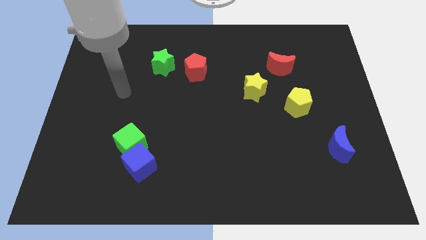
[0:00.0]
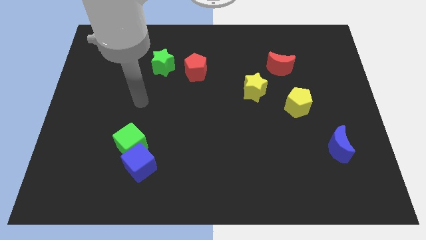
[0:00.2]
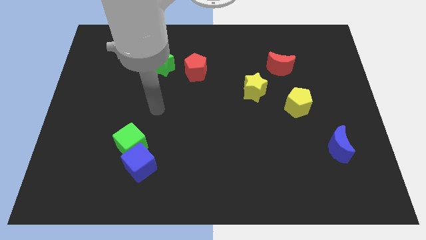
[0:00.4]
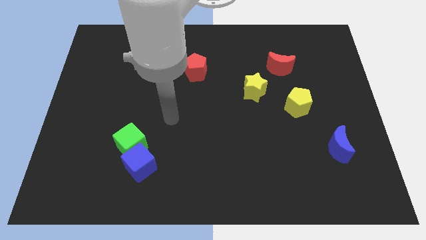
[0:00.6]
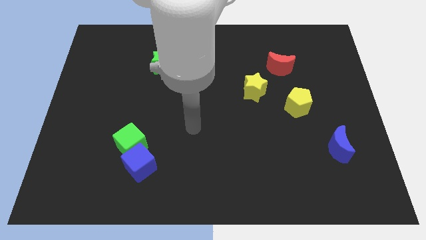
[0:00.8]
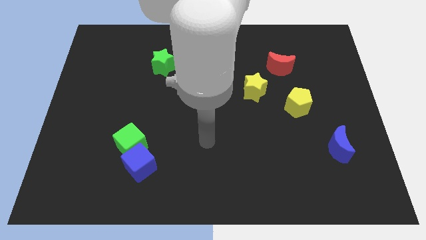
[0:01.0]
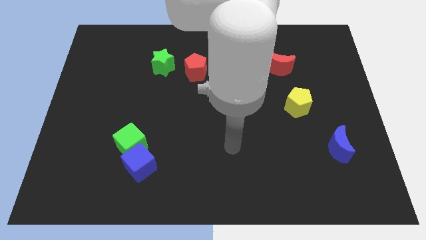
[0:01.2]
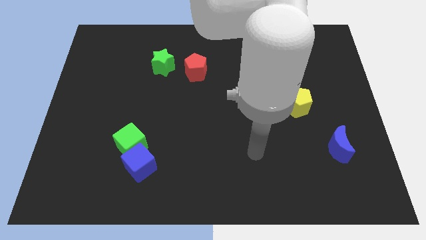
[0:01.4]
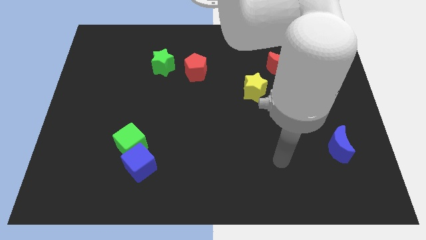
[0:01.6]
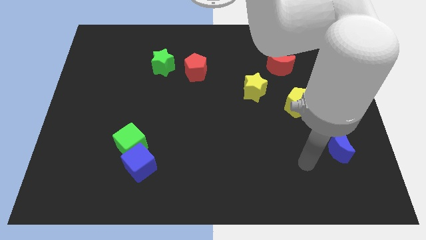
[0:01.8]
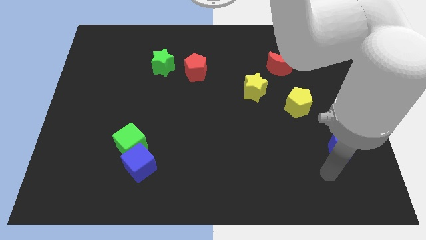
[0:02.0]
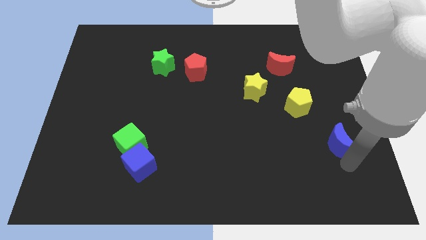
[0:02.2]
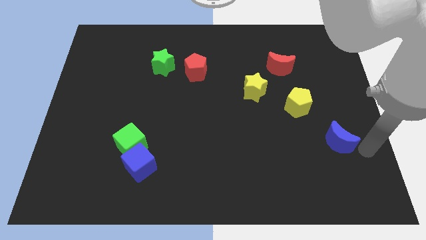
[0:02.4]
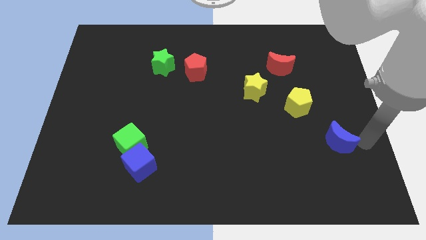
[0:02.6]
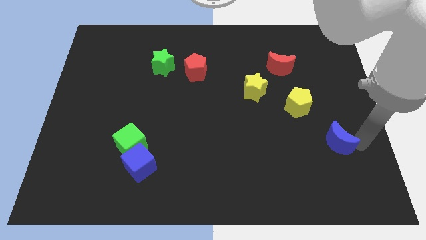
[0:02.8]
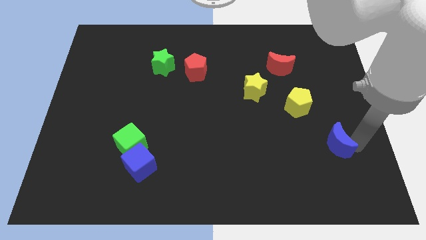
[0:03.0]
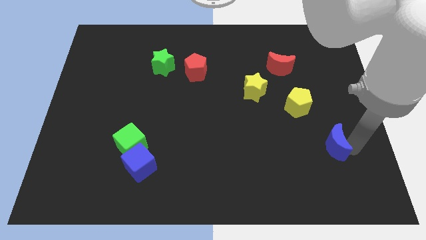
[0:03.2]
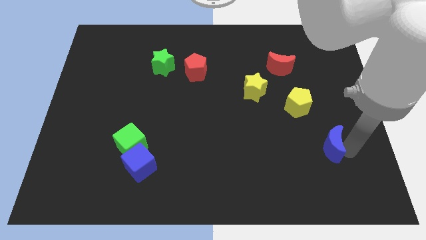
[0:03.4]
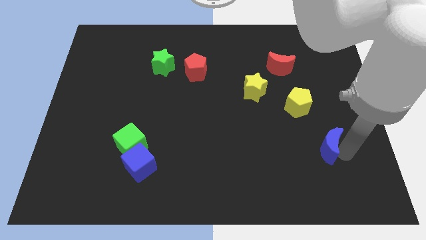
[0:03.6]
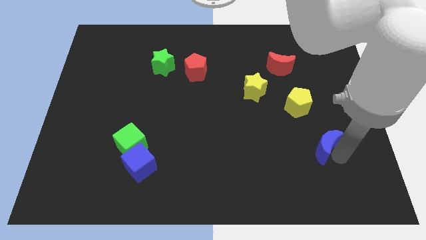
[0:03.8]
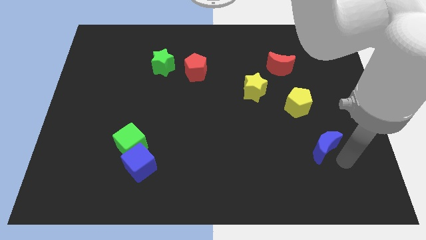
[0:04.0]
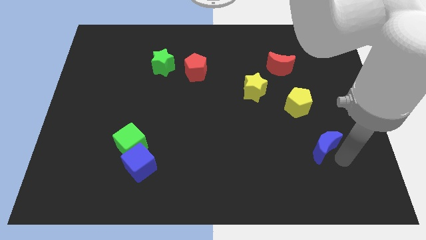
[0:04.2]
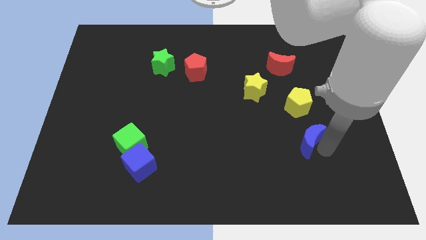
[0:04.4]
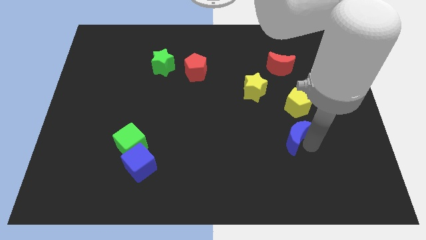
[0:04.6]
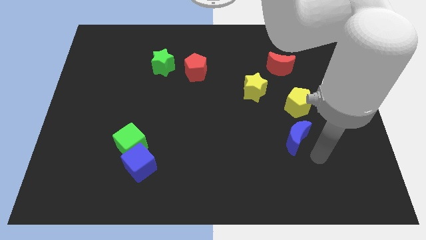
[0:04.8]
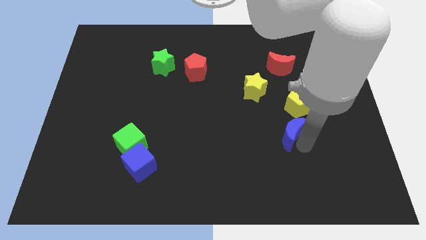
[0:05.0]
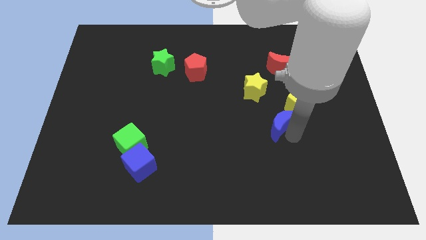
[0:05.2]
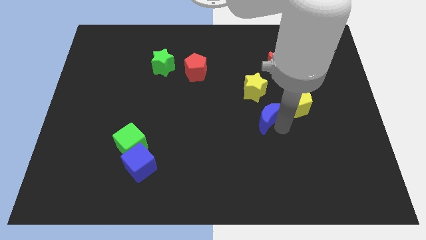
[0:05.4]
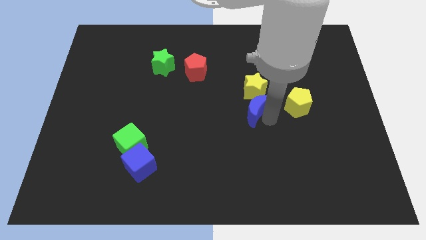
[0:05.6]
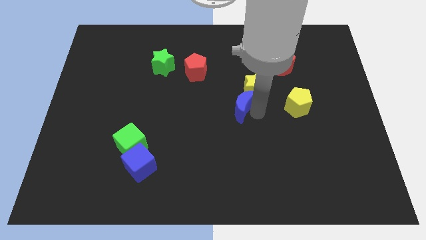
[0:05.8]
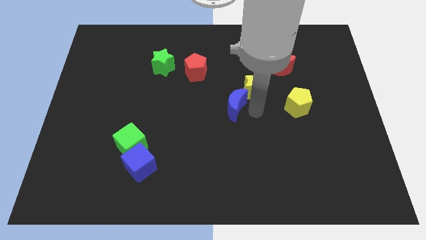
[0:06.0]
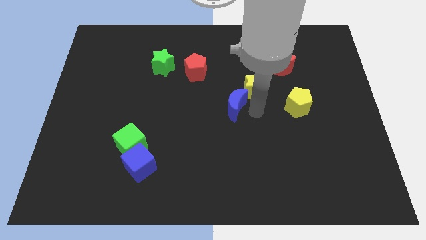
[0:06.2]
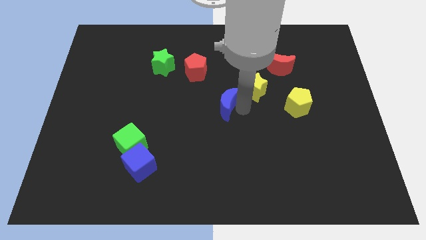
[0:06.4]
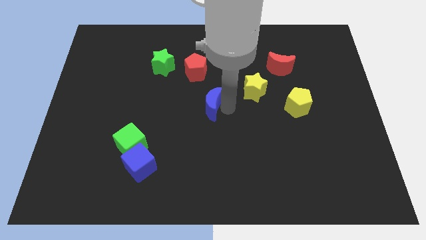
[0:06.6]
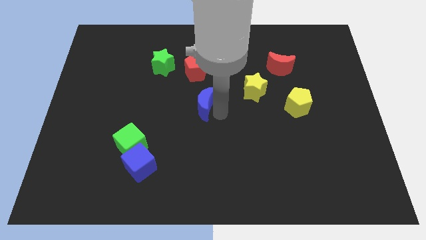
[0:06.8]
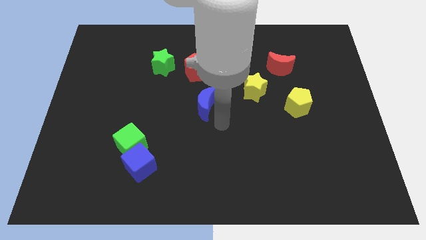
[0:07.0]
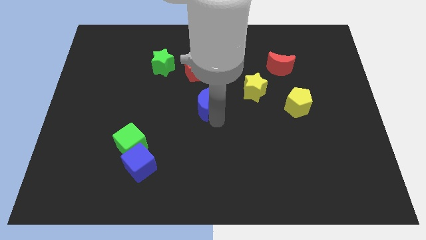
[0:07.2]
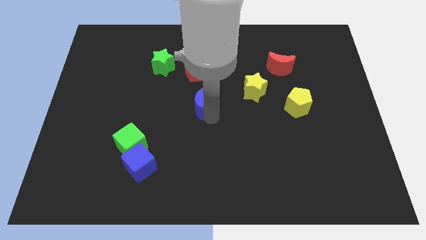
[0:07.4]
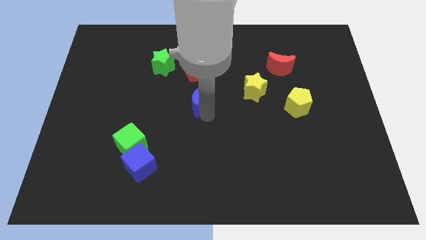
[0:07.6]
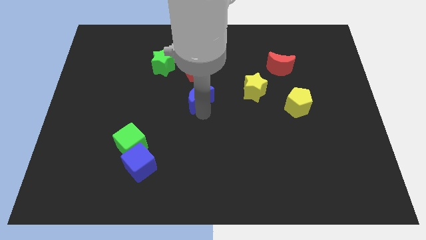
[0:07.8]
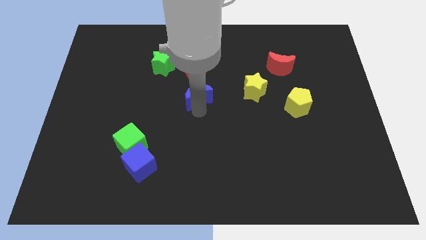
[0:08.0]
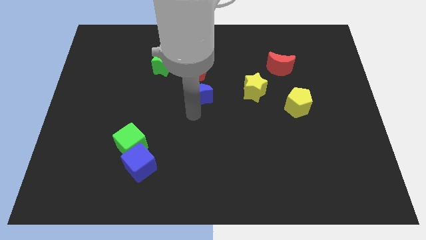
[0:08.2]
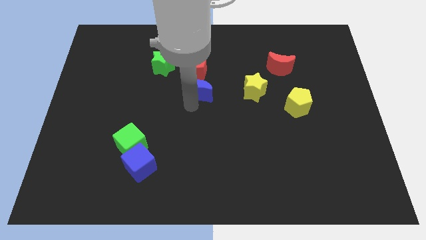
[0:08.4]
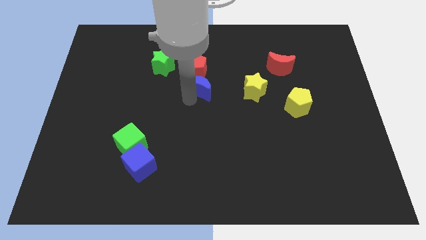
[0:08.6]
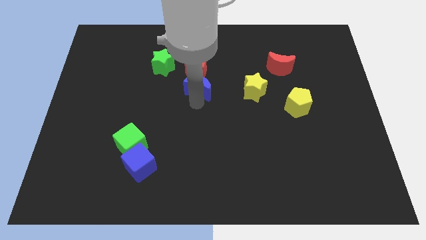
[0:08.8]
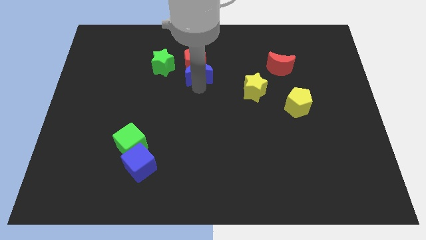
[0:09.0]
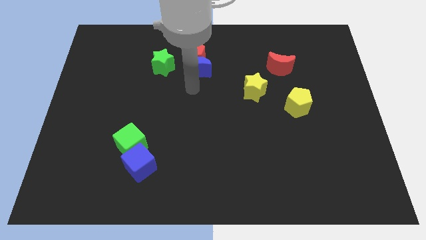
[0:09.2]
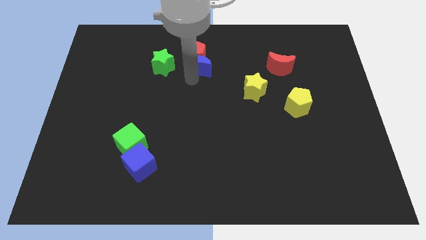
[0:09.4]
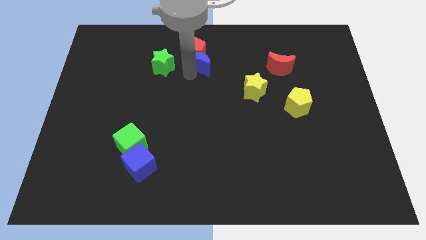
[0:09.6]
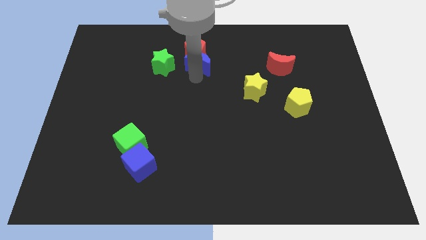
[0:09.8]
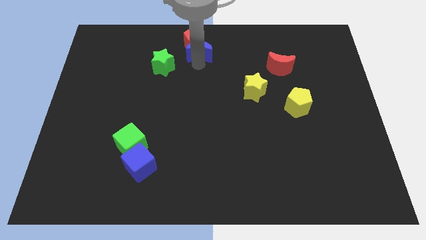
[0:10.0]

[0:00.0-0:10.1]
put the blue moon to the top

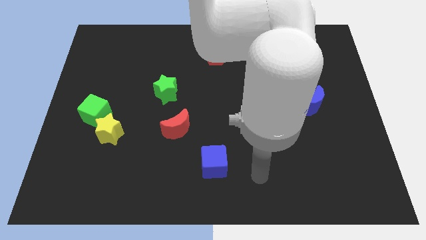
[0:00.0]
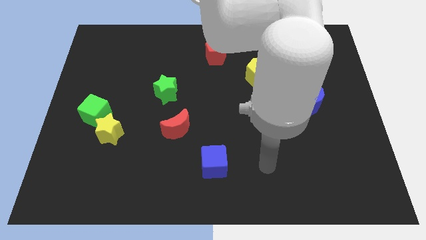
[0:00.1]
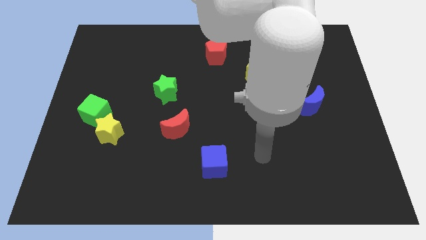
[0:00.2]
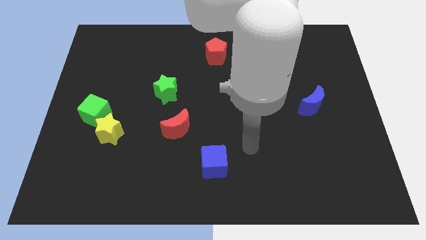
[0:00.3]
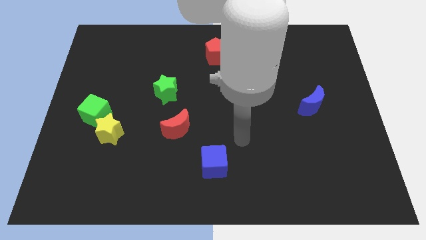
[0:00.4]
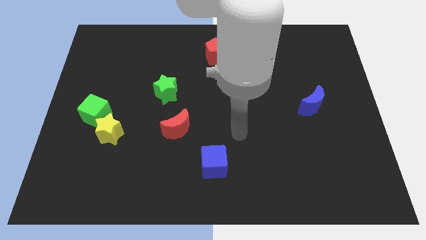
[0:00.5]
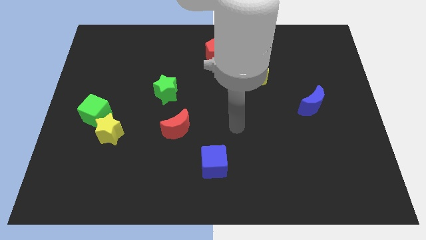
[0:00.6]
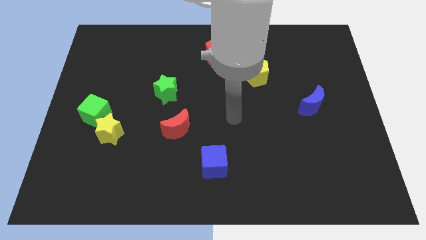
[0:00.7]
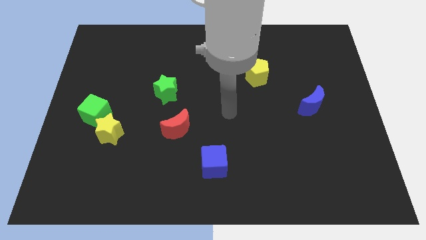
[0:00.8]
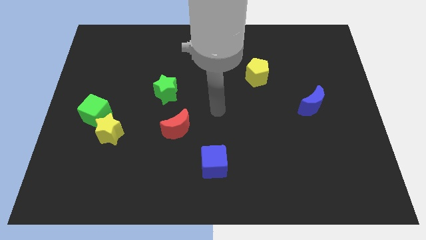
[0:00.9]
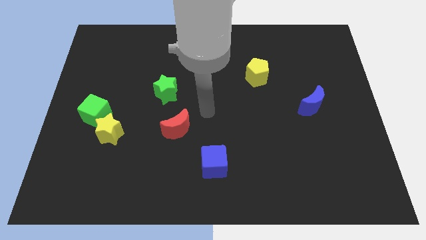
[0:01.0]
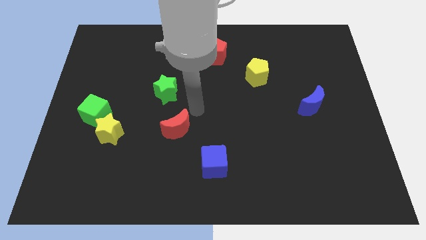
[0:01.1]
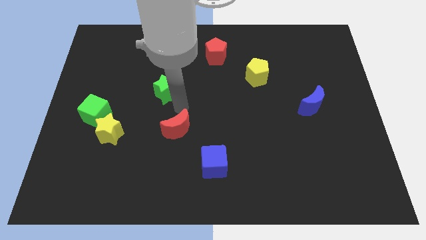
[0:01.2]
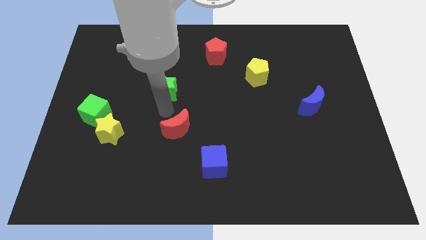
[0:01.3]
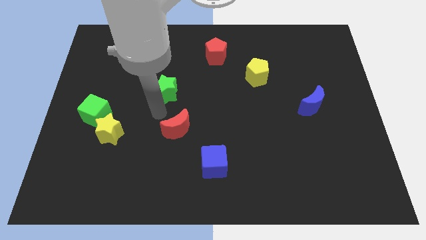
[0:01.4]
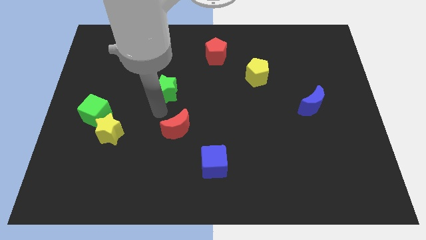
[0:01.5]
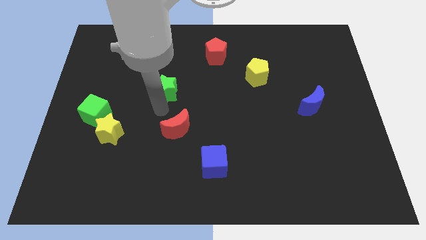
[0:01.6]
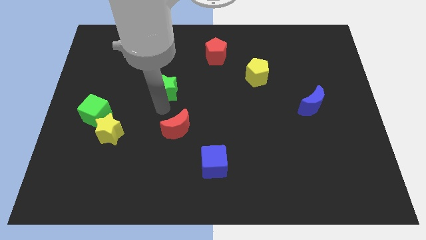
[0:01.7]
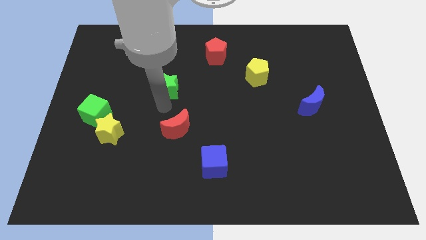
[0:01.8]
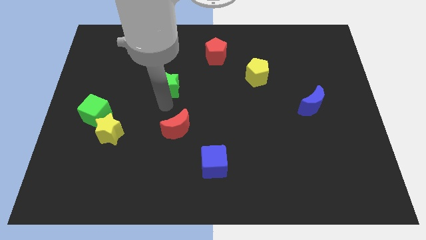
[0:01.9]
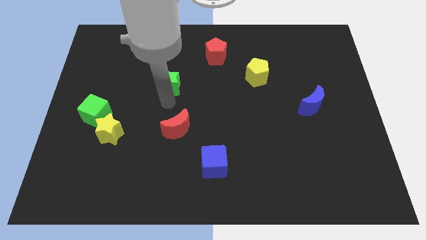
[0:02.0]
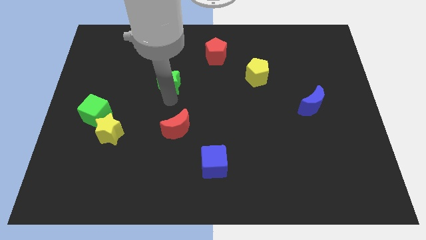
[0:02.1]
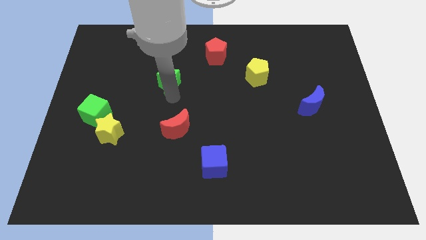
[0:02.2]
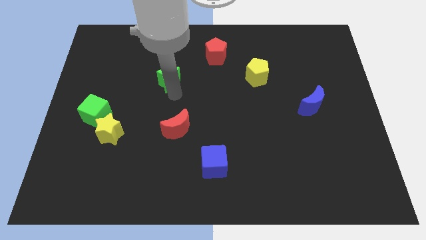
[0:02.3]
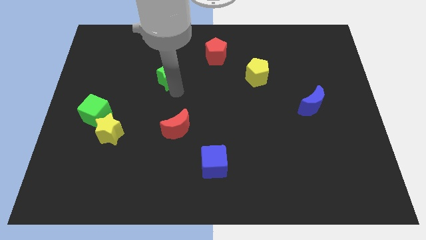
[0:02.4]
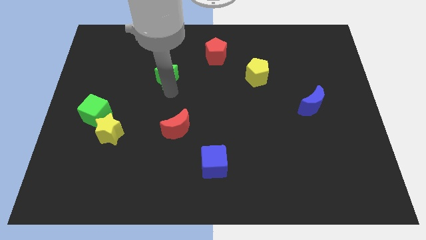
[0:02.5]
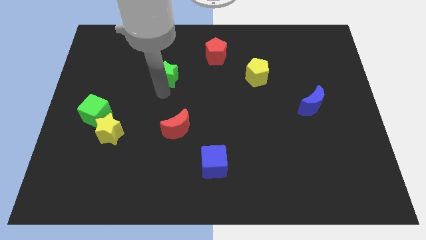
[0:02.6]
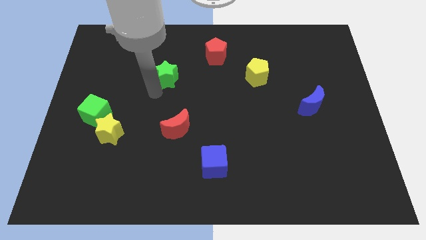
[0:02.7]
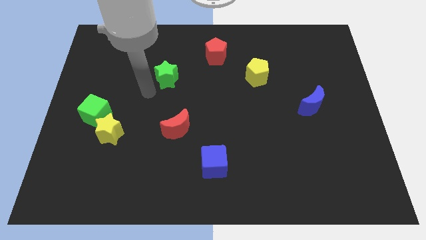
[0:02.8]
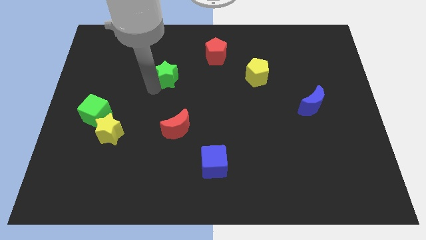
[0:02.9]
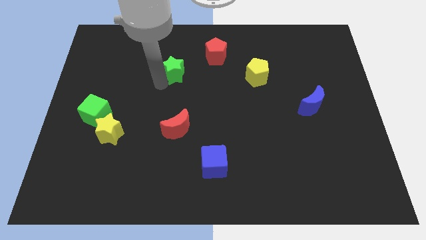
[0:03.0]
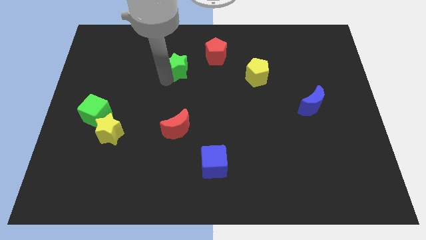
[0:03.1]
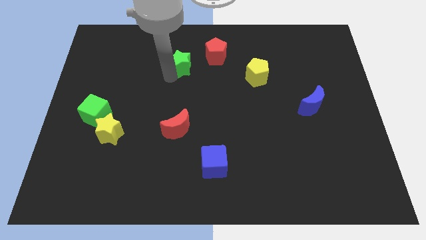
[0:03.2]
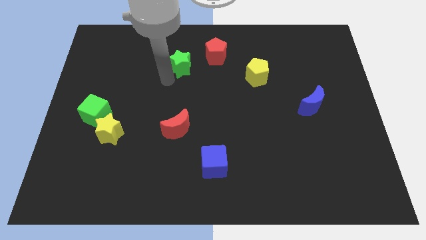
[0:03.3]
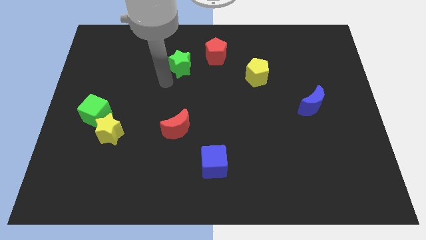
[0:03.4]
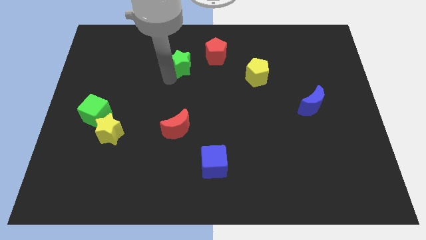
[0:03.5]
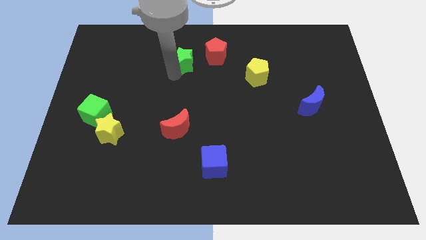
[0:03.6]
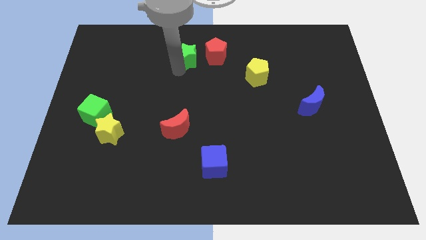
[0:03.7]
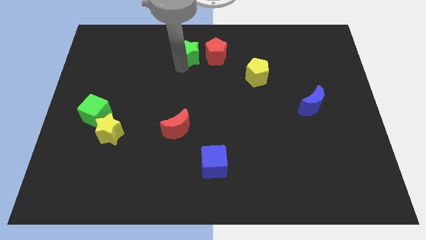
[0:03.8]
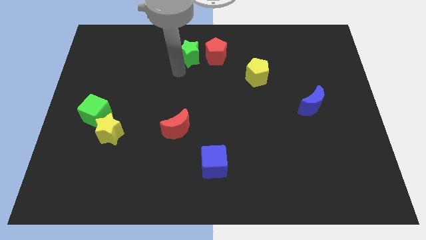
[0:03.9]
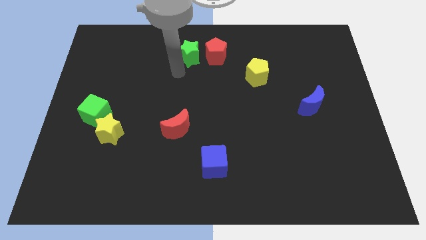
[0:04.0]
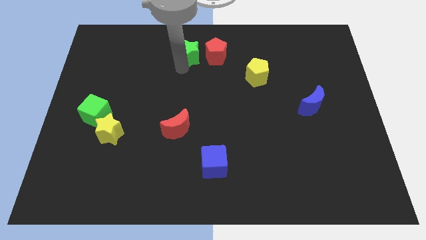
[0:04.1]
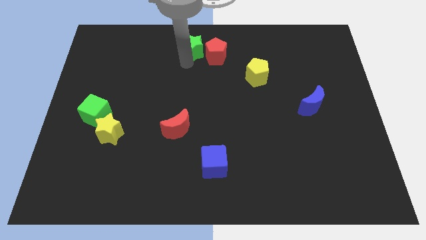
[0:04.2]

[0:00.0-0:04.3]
slide the green star to the top side
